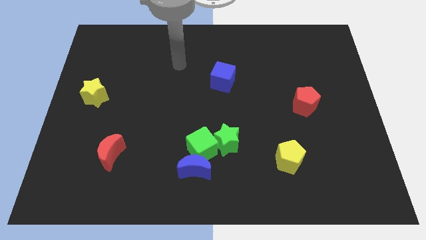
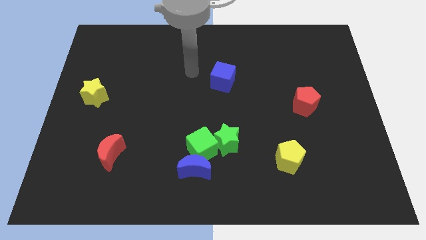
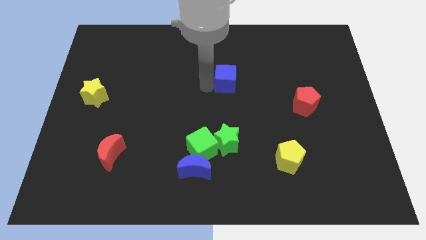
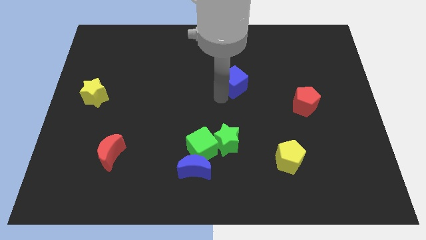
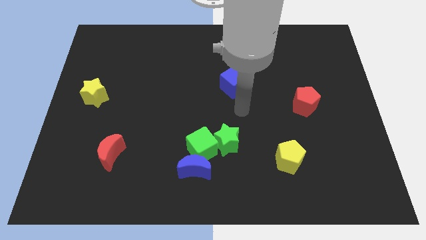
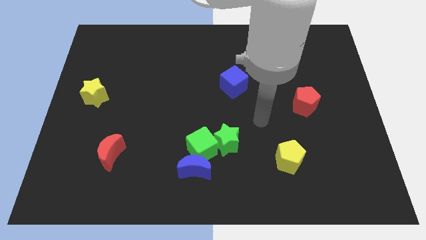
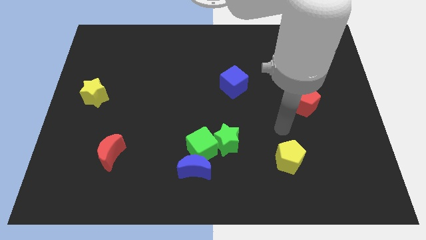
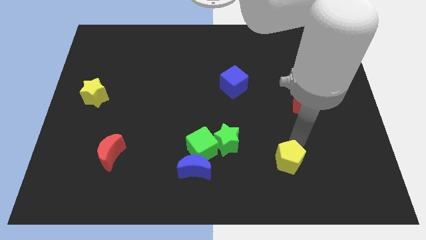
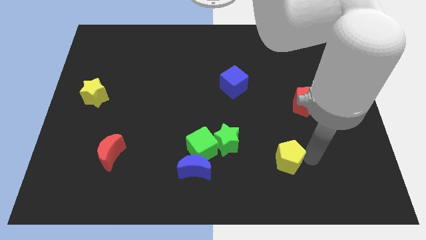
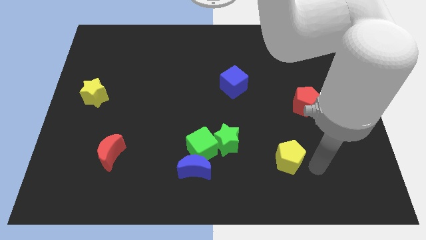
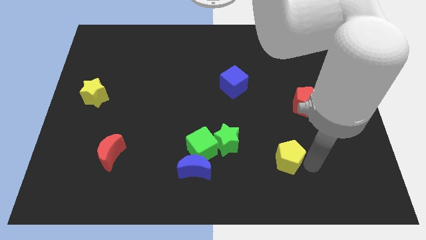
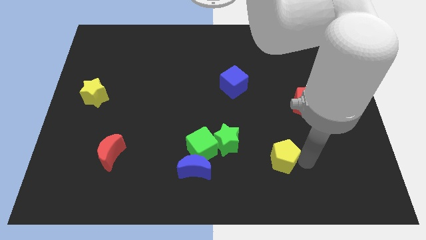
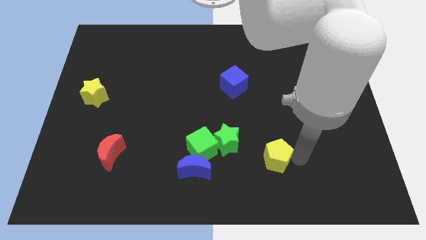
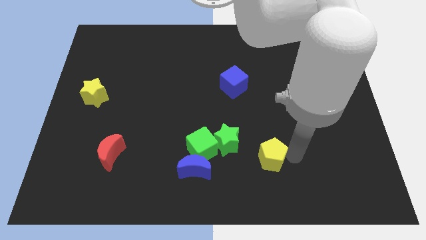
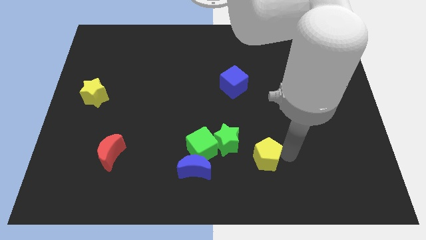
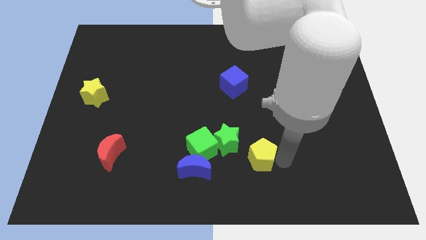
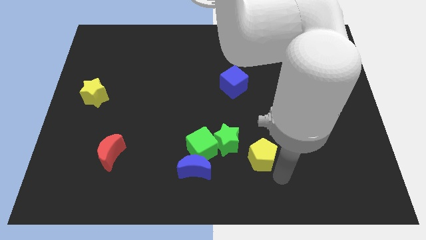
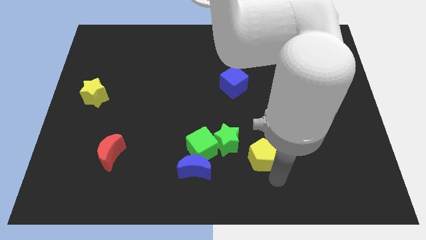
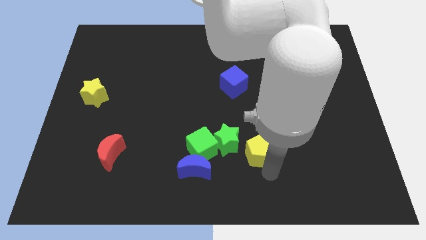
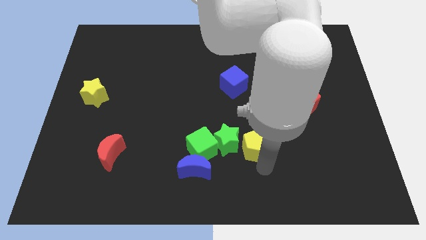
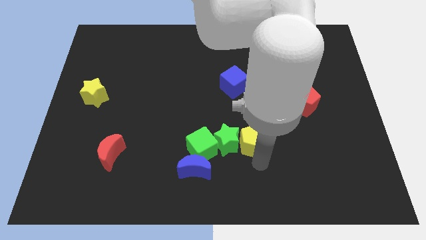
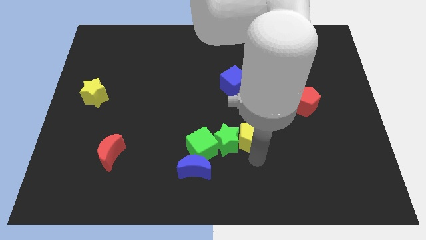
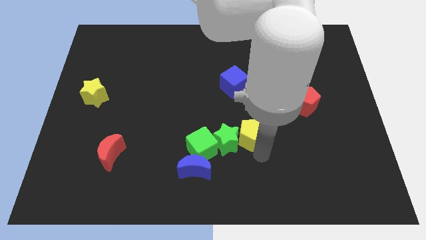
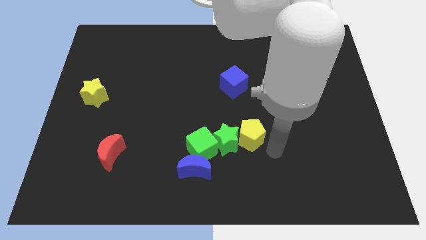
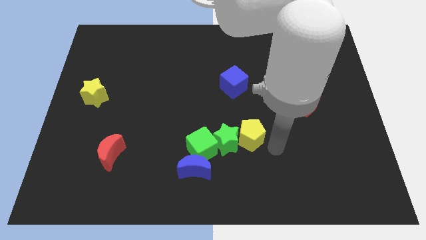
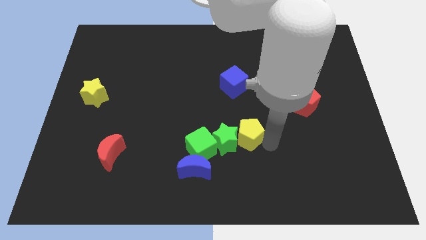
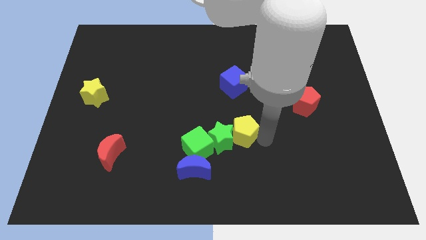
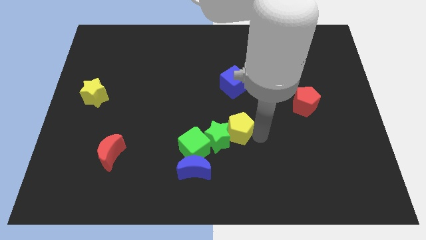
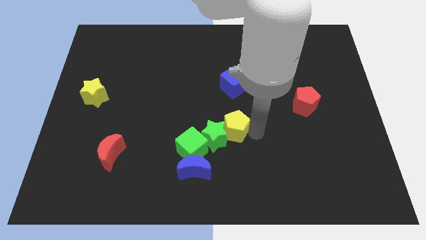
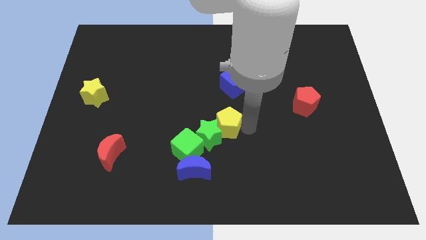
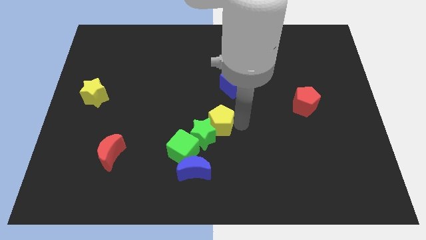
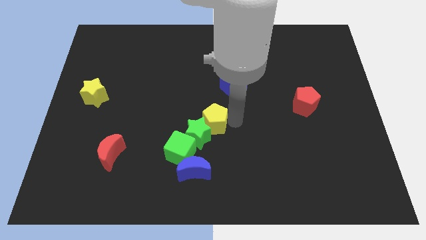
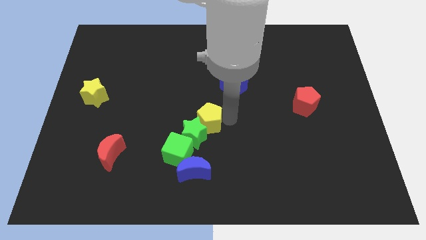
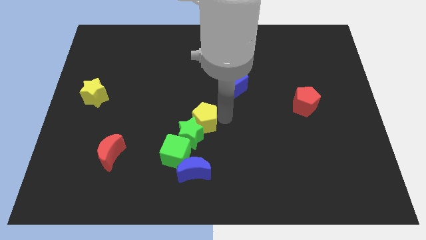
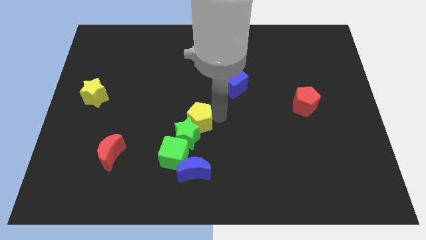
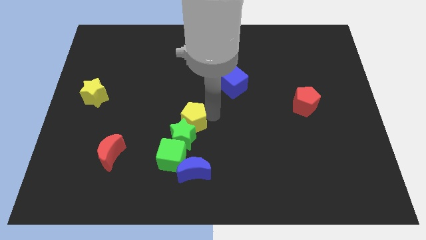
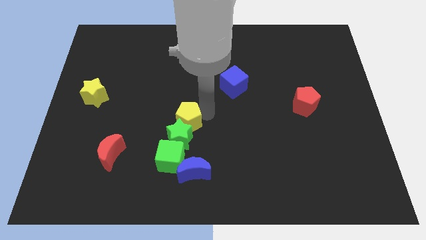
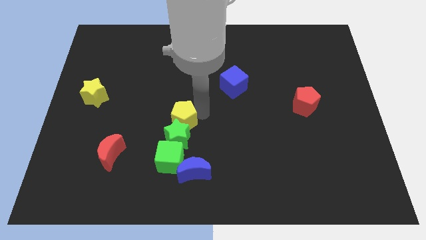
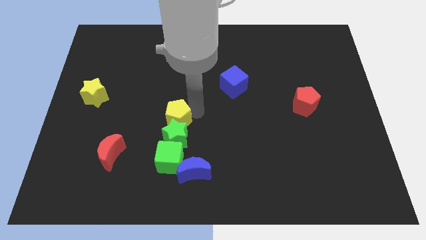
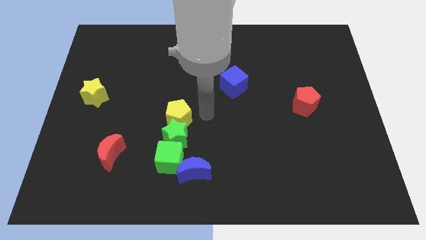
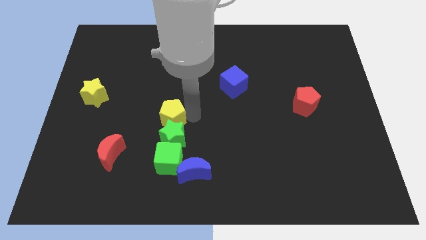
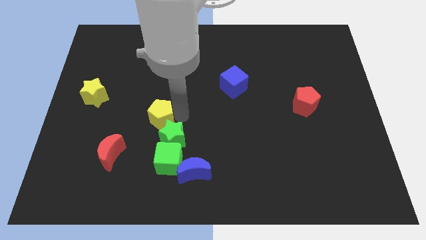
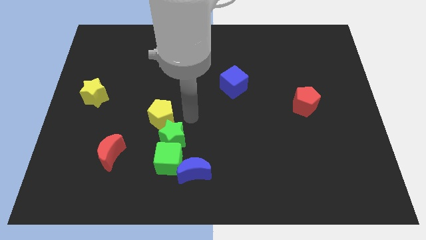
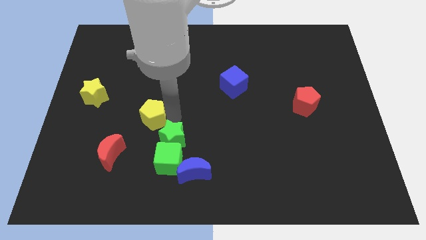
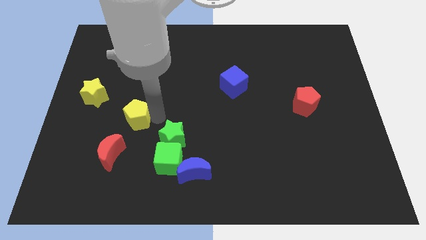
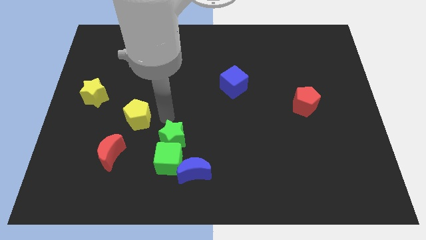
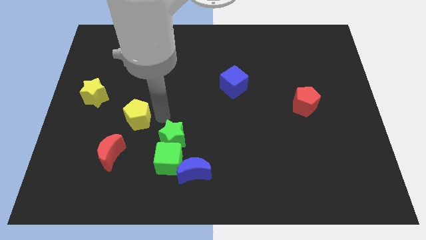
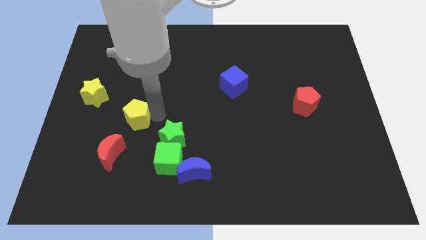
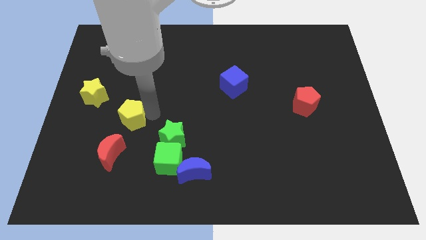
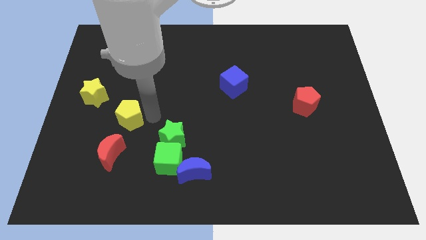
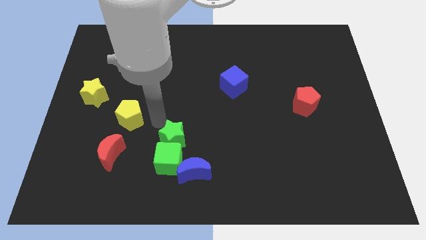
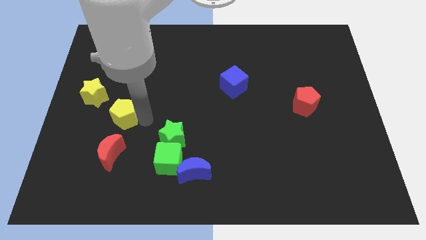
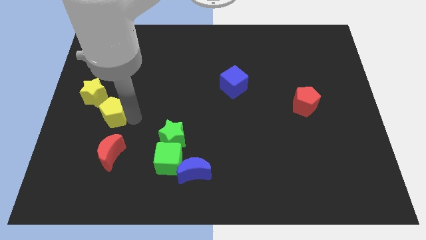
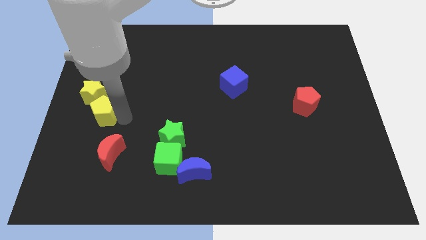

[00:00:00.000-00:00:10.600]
move the yellow pentagon close to the yellow star

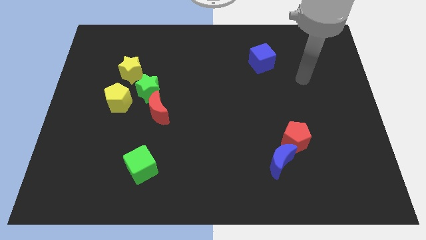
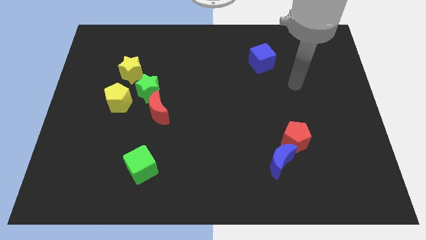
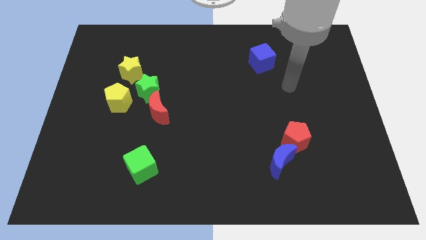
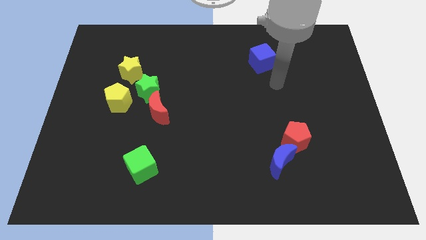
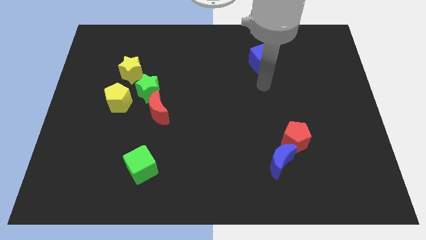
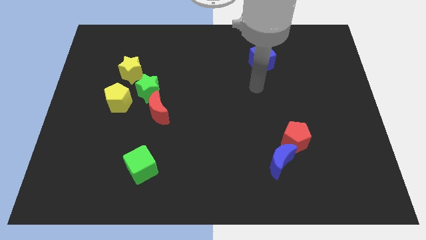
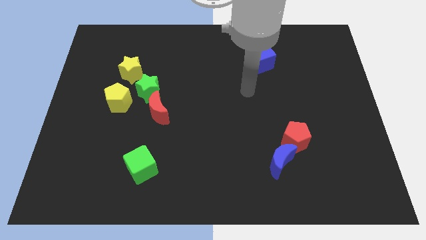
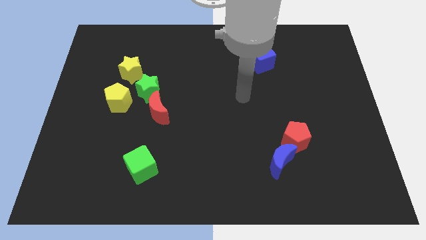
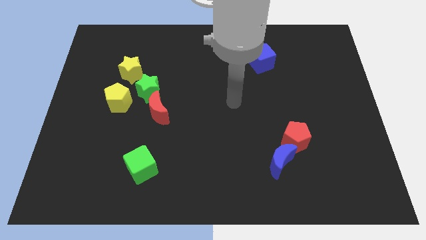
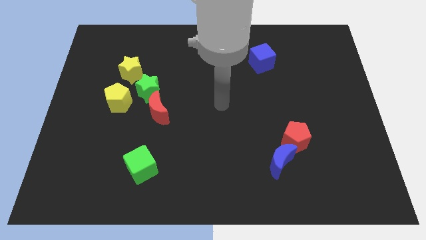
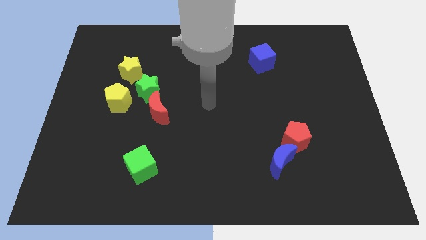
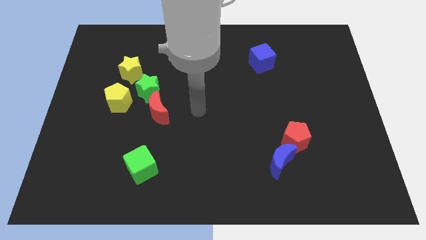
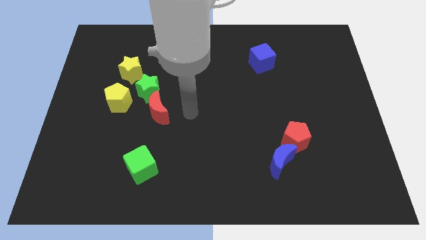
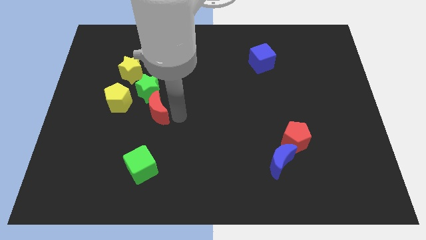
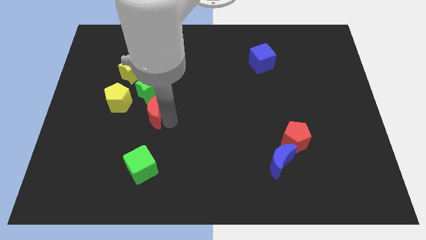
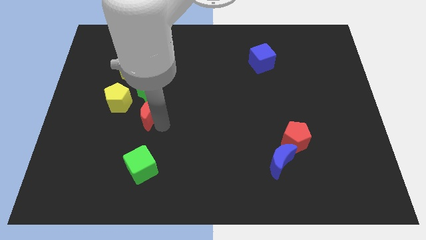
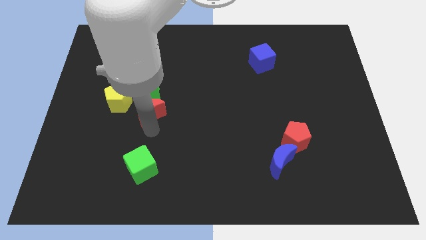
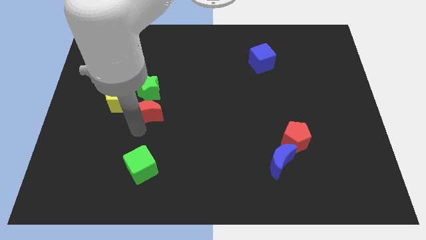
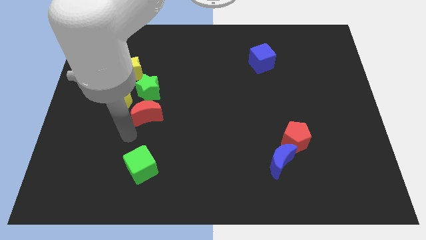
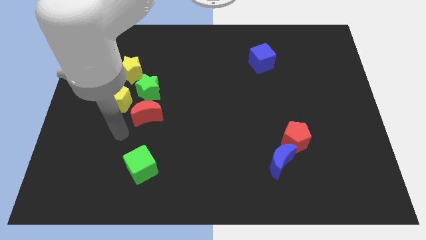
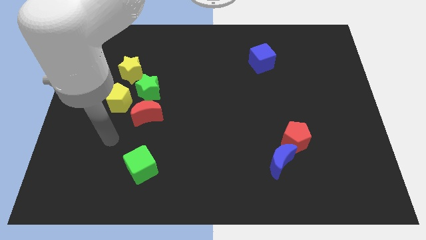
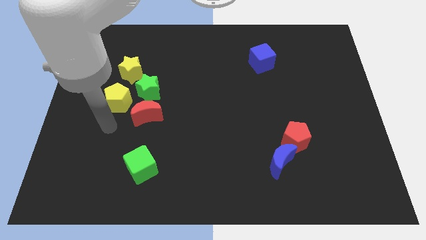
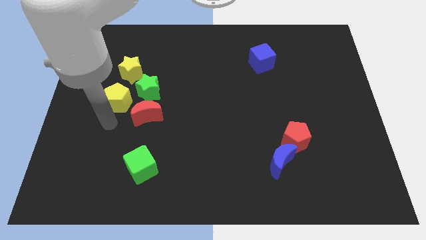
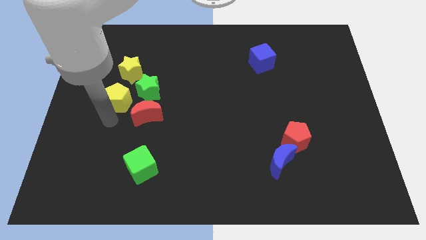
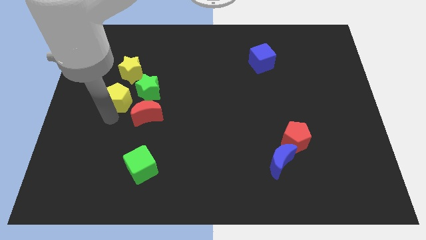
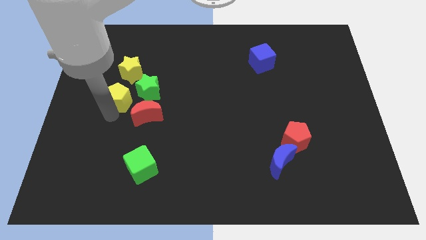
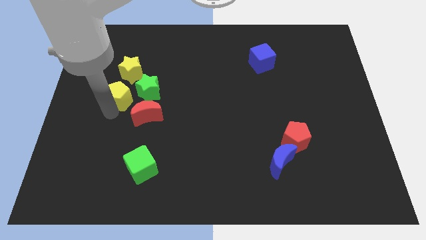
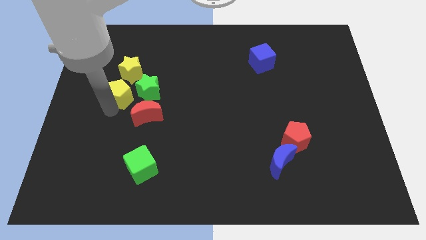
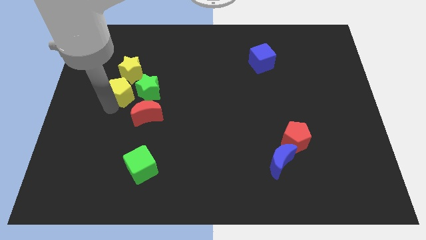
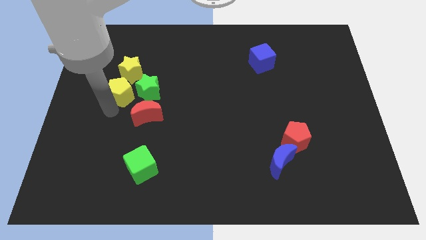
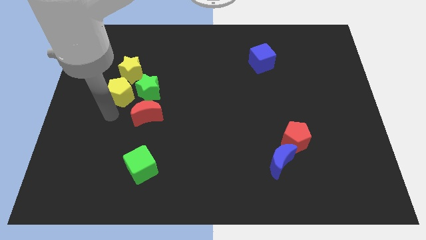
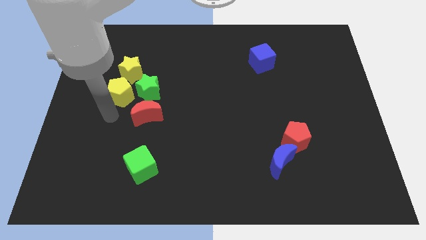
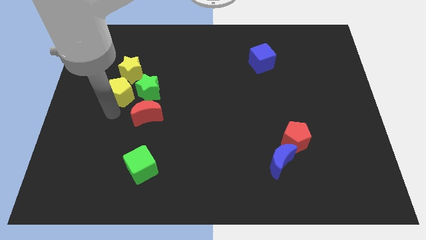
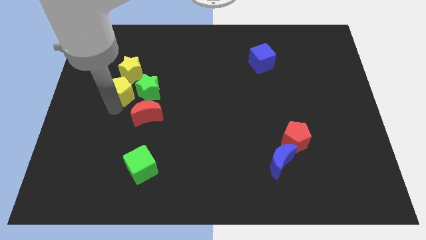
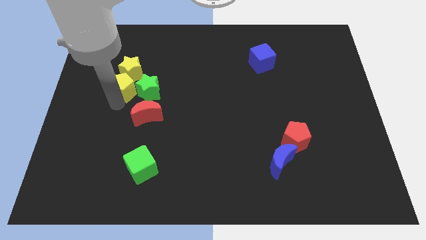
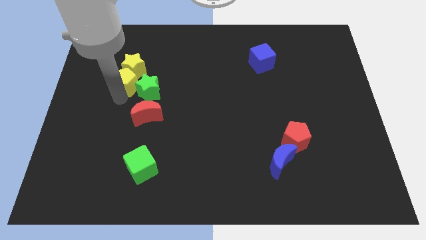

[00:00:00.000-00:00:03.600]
push the yellow pentagon close to the yellow star
